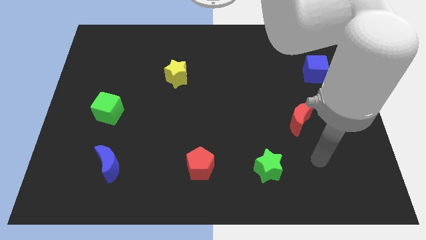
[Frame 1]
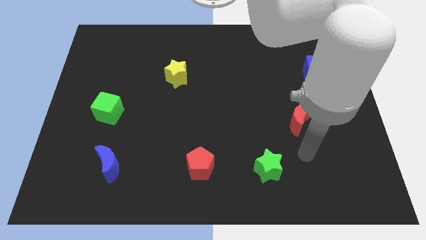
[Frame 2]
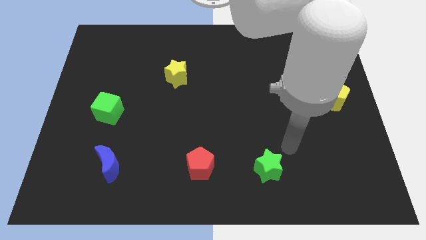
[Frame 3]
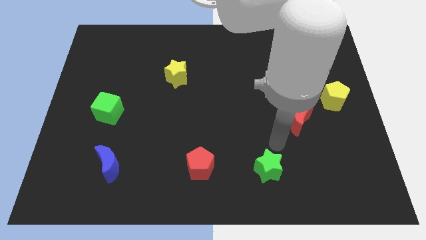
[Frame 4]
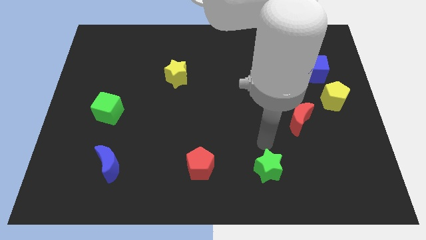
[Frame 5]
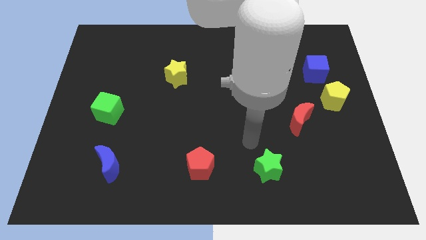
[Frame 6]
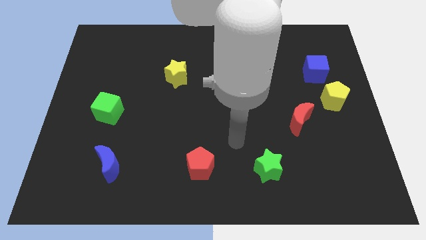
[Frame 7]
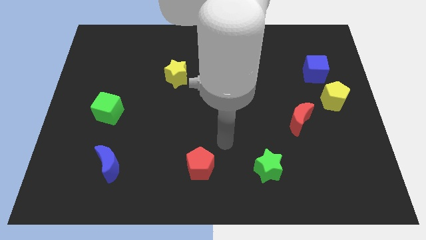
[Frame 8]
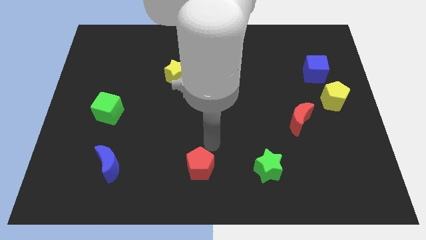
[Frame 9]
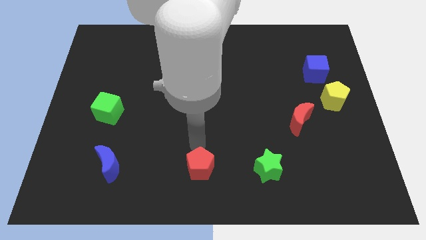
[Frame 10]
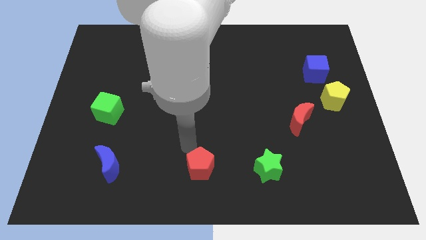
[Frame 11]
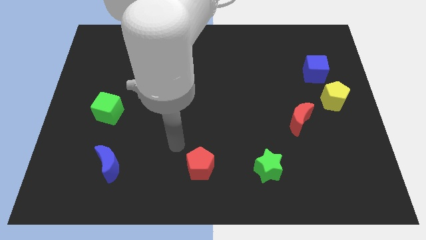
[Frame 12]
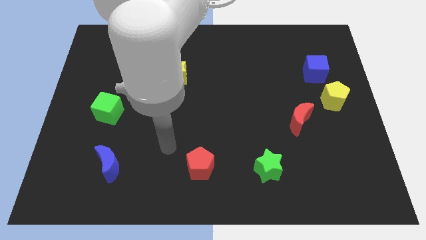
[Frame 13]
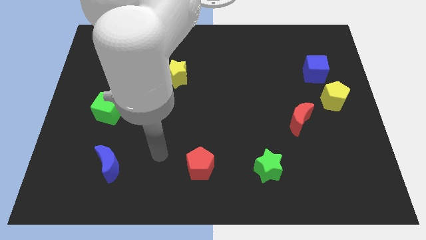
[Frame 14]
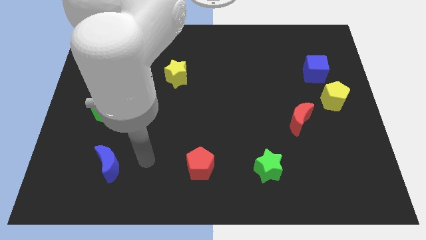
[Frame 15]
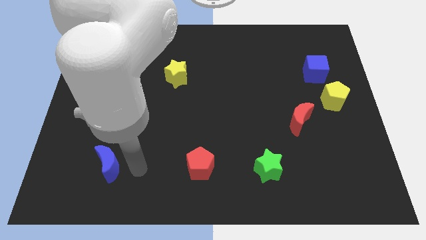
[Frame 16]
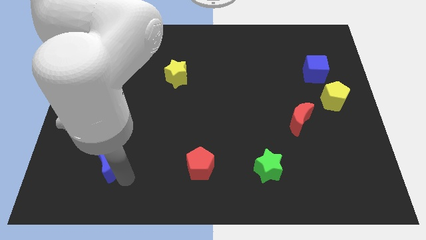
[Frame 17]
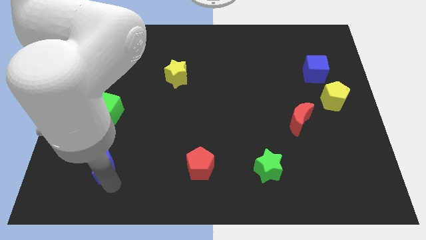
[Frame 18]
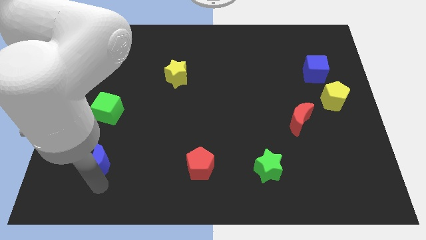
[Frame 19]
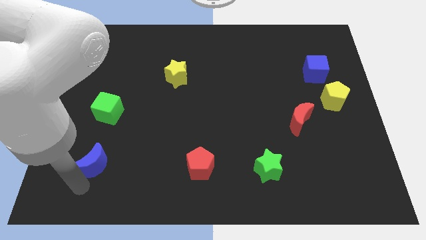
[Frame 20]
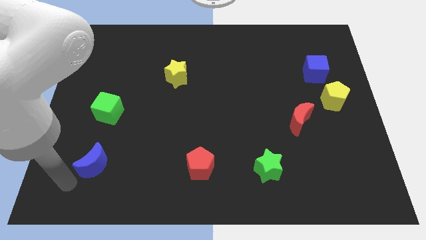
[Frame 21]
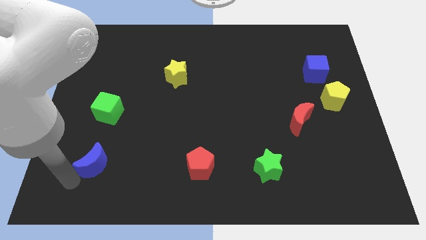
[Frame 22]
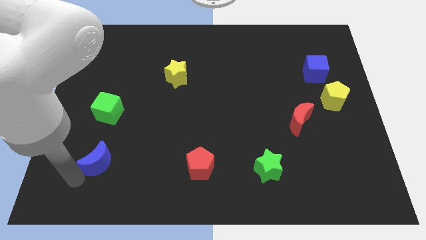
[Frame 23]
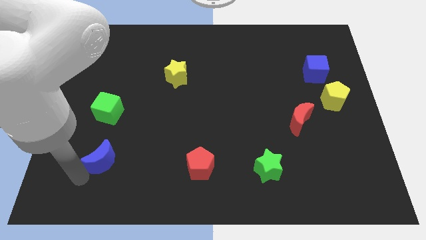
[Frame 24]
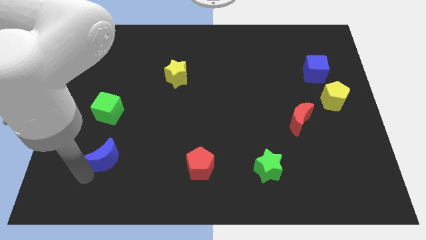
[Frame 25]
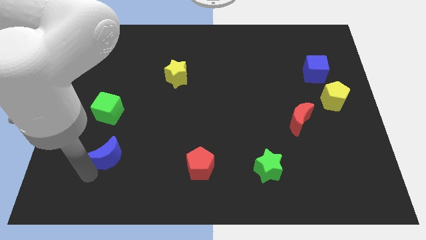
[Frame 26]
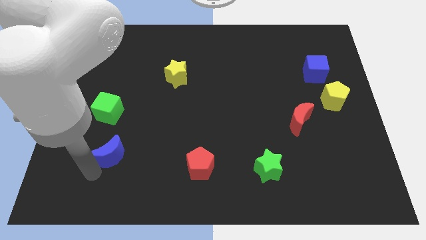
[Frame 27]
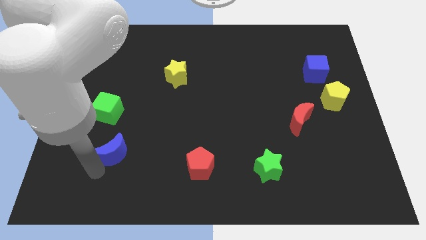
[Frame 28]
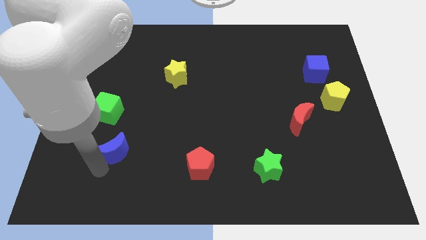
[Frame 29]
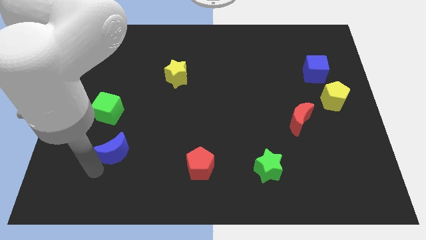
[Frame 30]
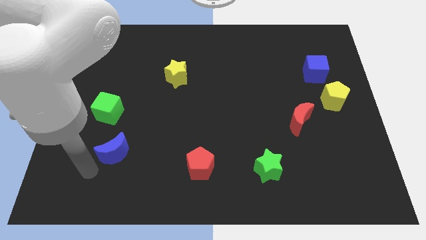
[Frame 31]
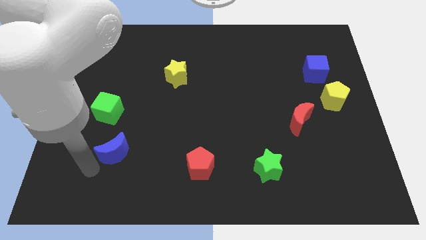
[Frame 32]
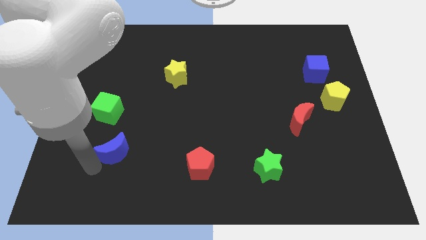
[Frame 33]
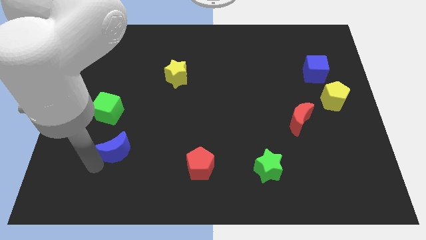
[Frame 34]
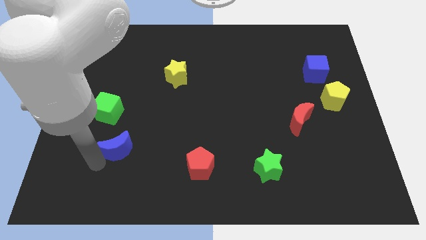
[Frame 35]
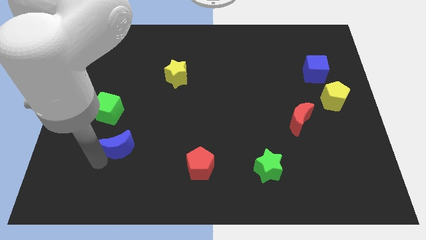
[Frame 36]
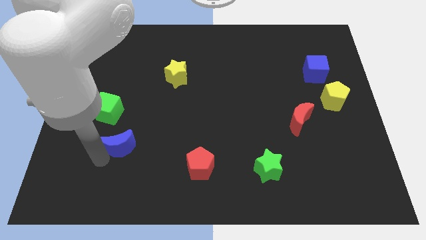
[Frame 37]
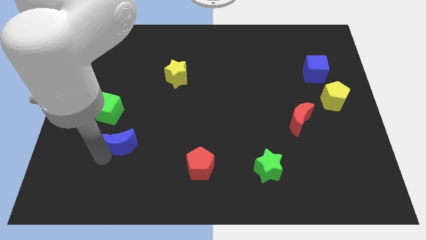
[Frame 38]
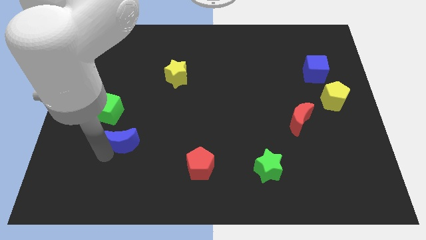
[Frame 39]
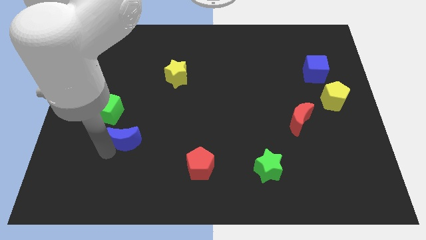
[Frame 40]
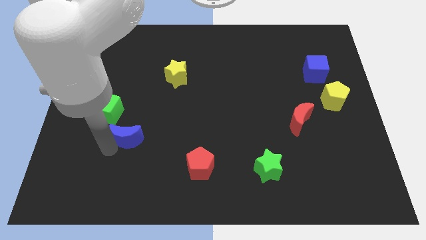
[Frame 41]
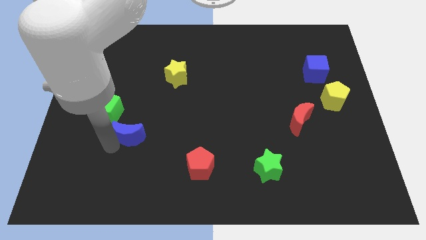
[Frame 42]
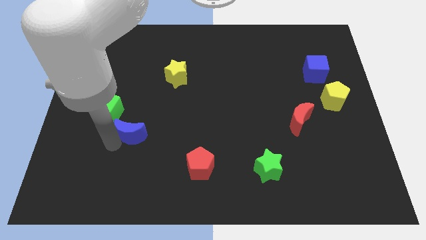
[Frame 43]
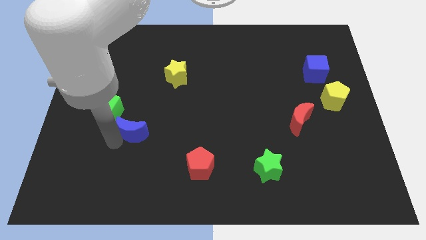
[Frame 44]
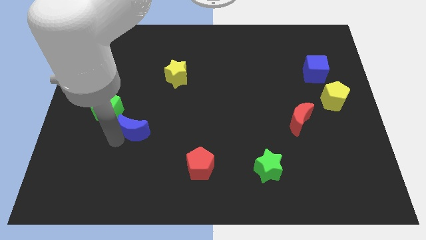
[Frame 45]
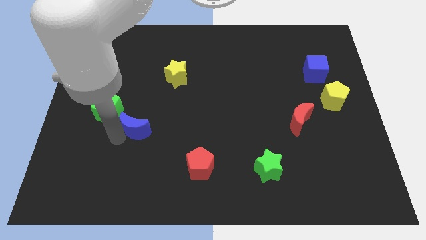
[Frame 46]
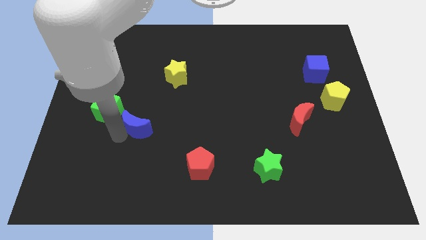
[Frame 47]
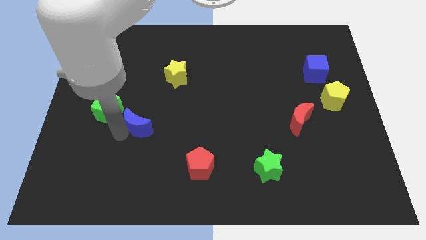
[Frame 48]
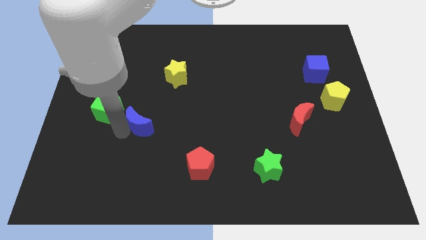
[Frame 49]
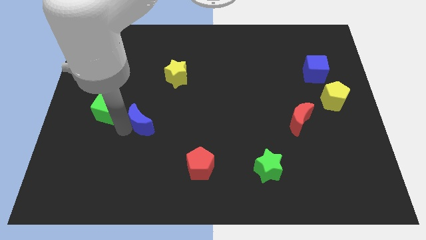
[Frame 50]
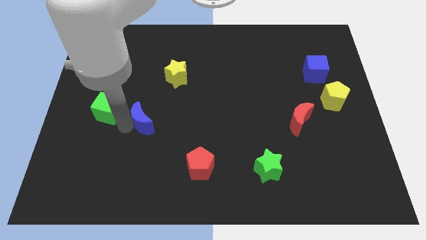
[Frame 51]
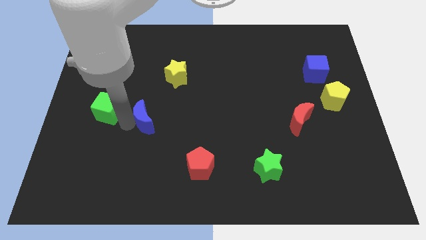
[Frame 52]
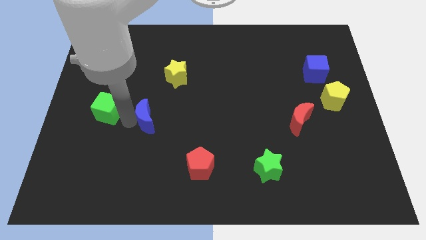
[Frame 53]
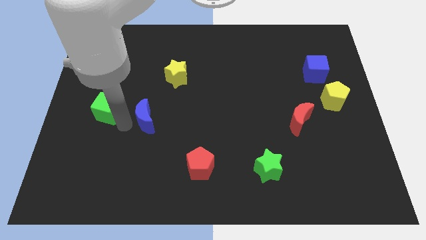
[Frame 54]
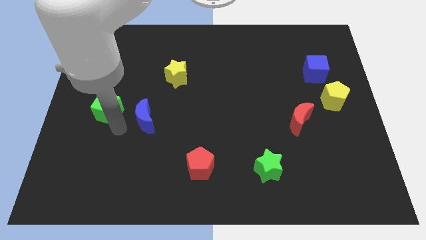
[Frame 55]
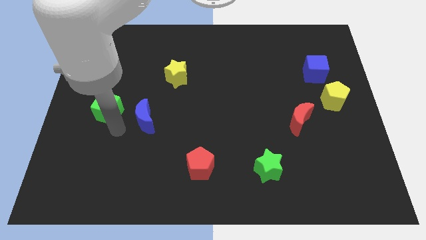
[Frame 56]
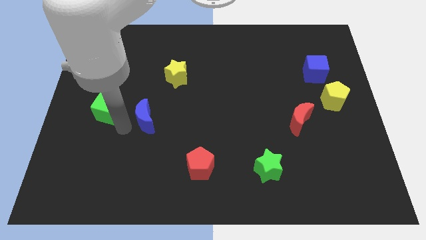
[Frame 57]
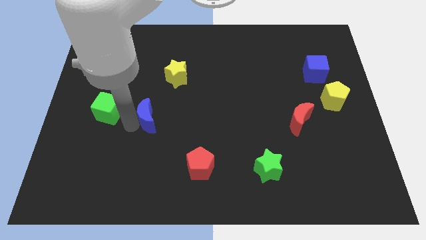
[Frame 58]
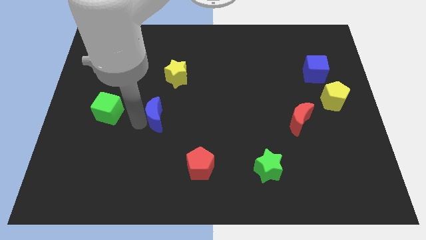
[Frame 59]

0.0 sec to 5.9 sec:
slide the blue moon to the bottom side of the yellow star

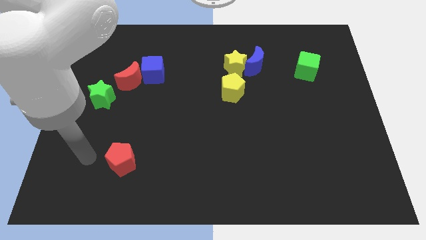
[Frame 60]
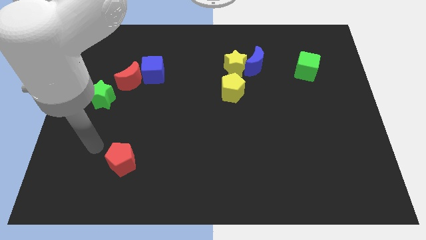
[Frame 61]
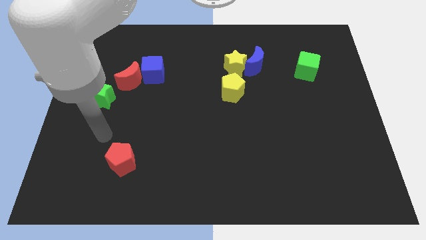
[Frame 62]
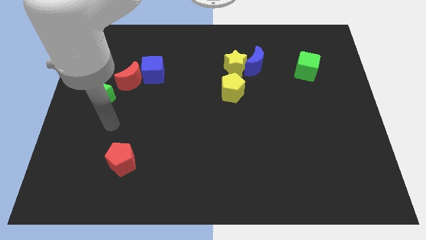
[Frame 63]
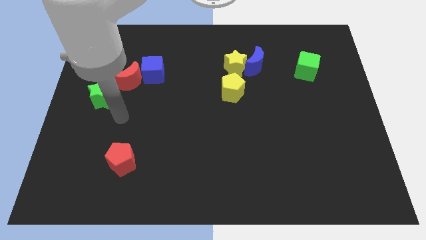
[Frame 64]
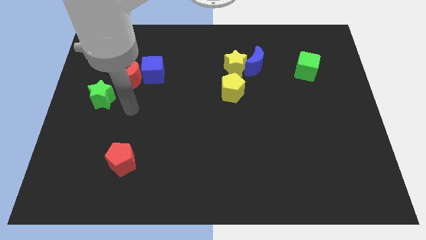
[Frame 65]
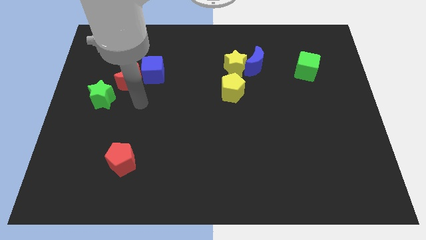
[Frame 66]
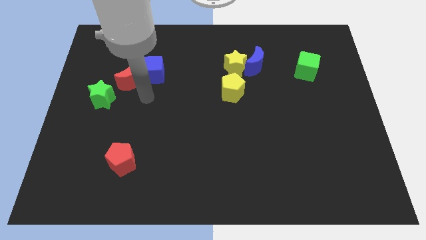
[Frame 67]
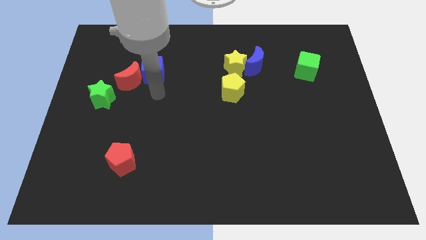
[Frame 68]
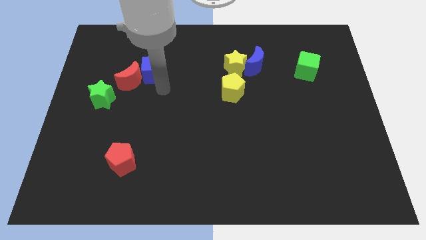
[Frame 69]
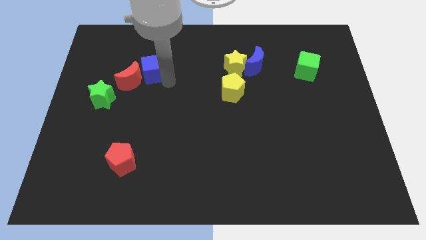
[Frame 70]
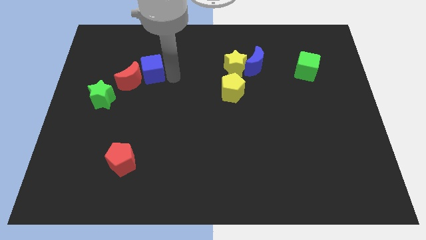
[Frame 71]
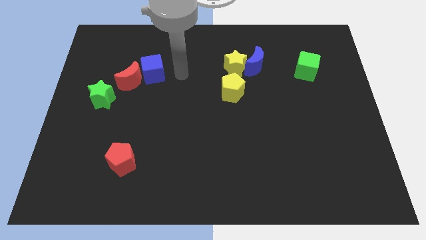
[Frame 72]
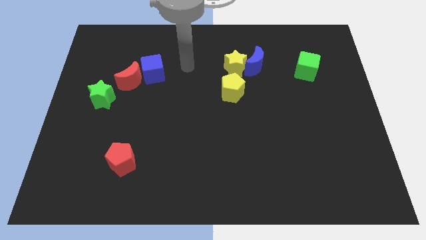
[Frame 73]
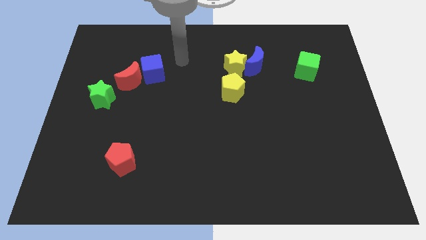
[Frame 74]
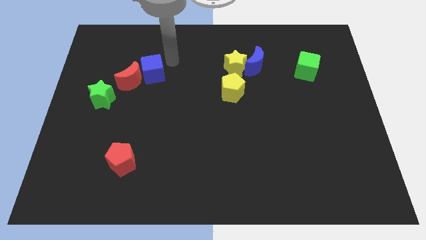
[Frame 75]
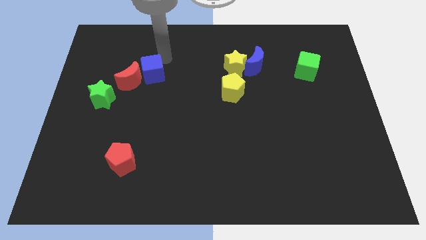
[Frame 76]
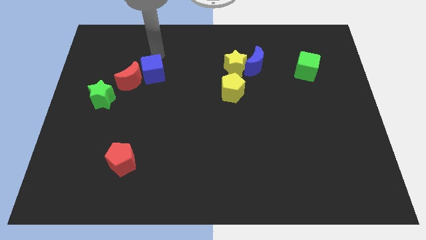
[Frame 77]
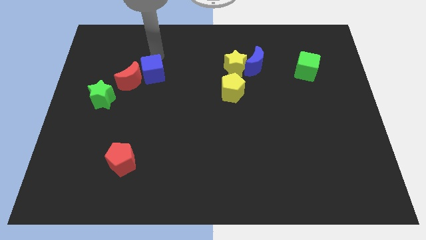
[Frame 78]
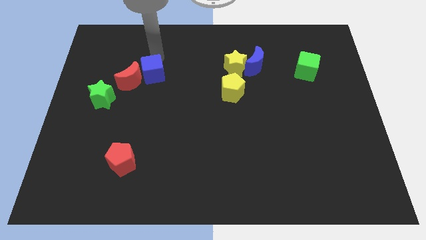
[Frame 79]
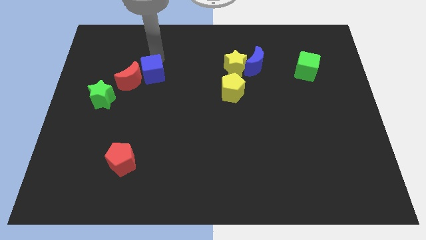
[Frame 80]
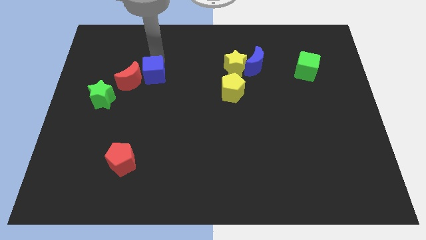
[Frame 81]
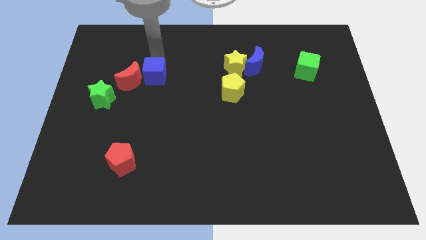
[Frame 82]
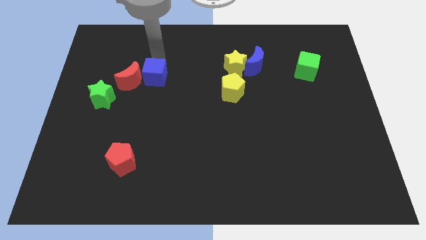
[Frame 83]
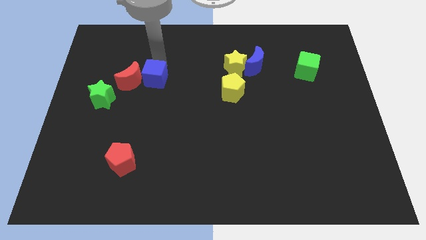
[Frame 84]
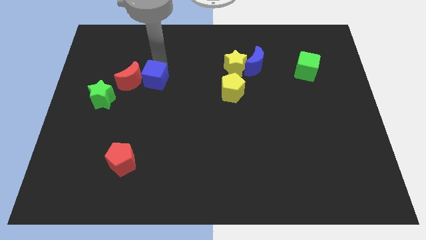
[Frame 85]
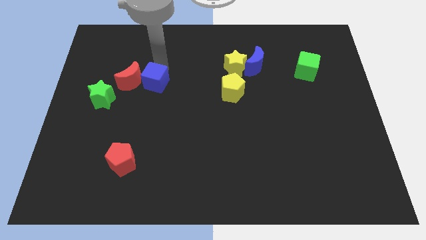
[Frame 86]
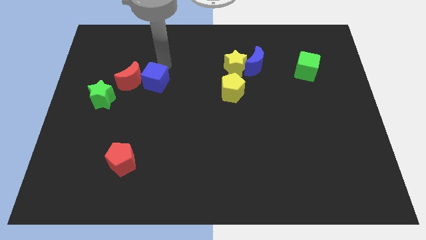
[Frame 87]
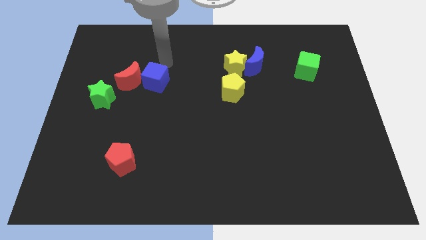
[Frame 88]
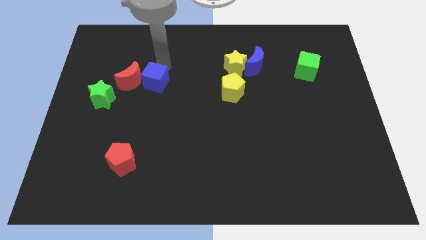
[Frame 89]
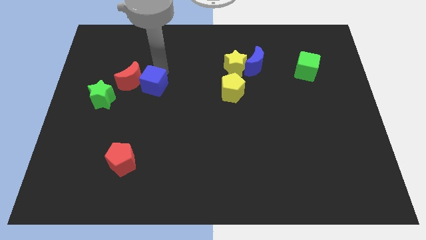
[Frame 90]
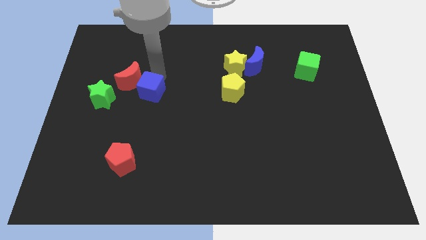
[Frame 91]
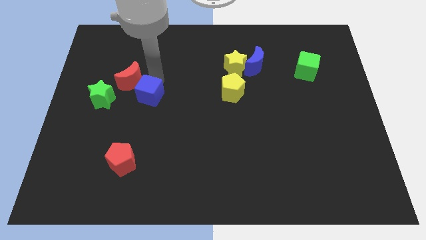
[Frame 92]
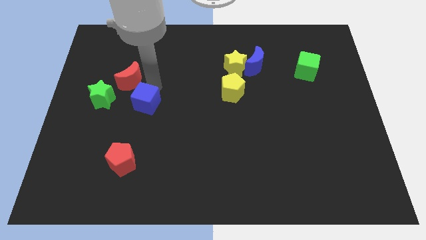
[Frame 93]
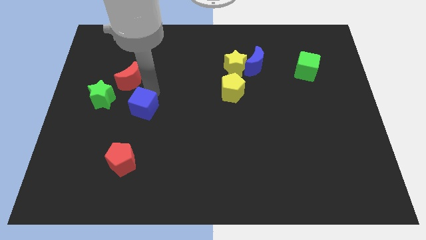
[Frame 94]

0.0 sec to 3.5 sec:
push the blue cube to the top of the red pentagon
